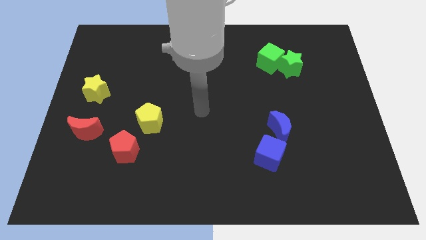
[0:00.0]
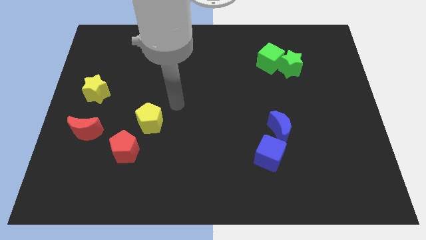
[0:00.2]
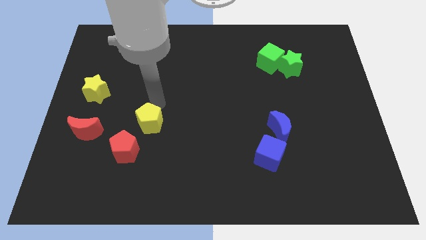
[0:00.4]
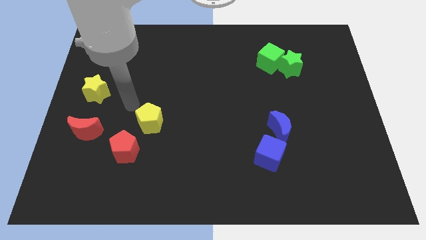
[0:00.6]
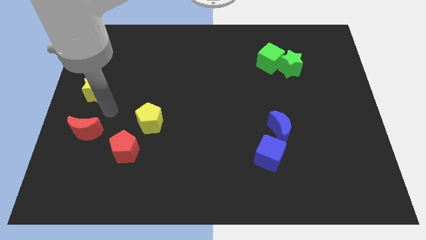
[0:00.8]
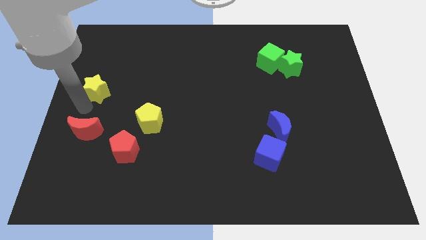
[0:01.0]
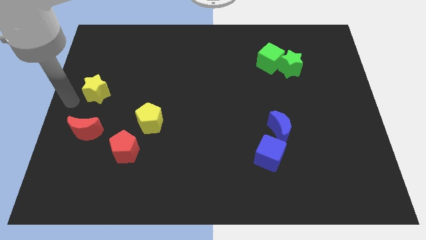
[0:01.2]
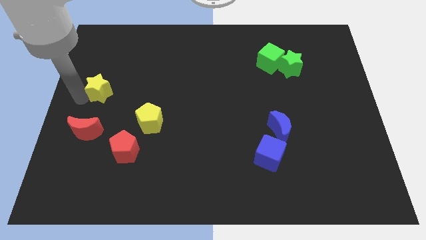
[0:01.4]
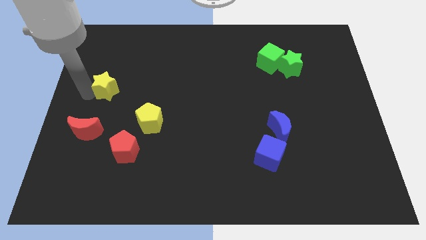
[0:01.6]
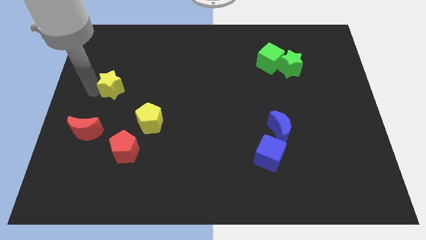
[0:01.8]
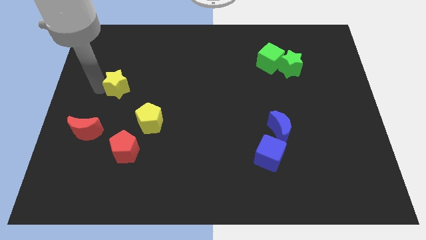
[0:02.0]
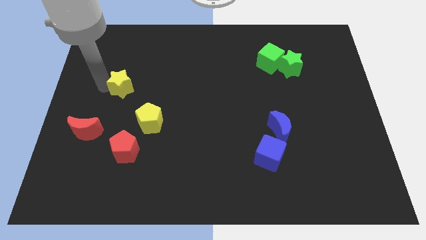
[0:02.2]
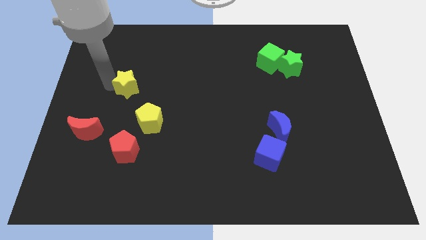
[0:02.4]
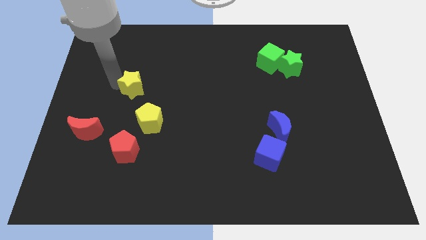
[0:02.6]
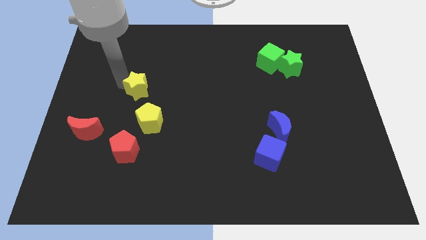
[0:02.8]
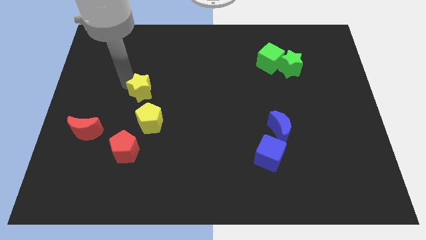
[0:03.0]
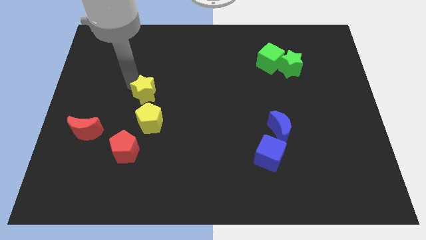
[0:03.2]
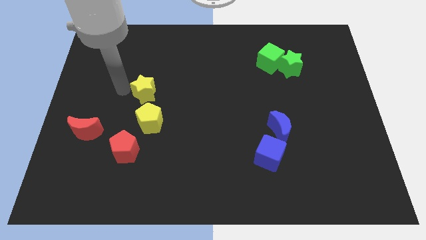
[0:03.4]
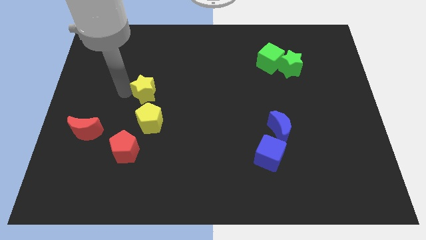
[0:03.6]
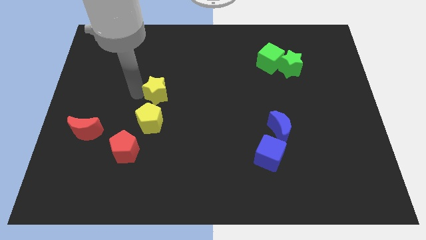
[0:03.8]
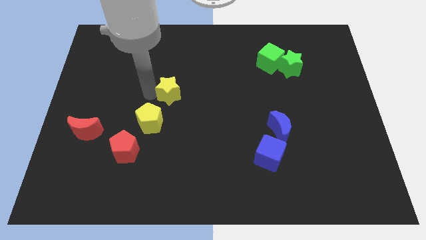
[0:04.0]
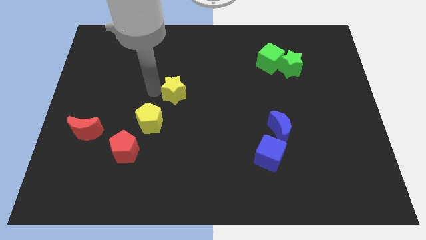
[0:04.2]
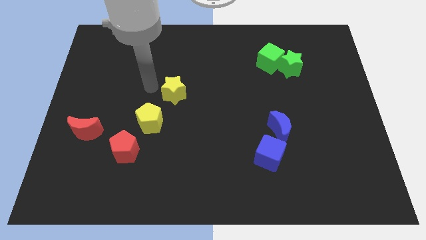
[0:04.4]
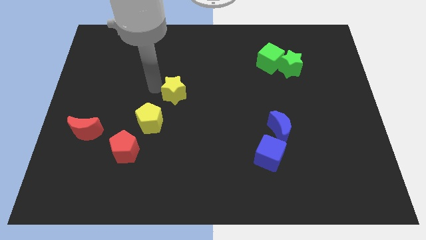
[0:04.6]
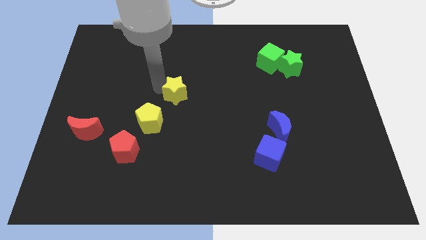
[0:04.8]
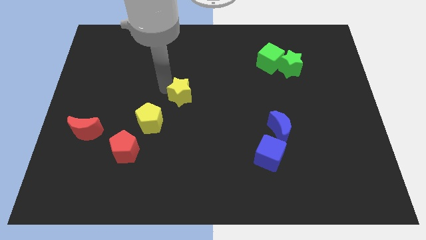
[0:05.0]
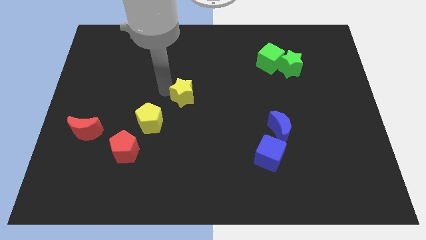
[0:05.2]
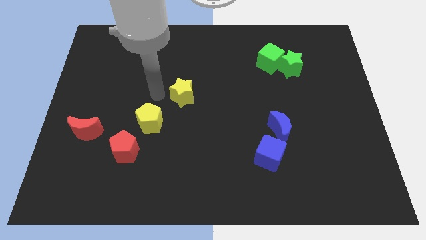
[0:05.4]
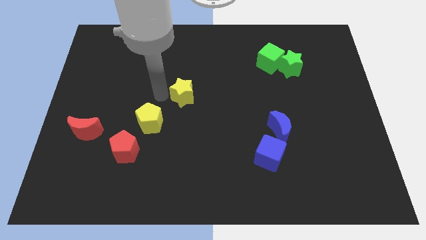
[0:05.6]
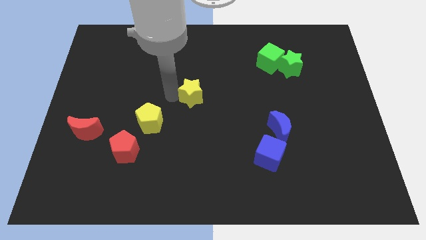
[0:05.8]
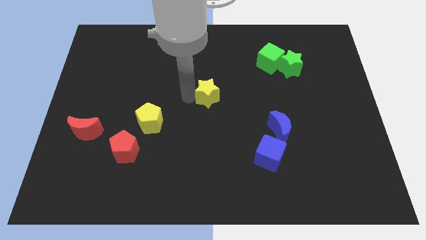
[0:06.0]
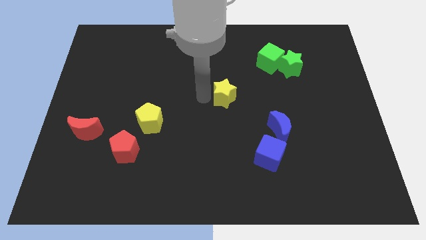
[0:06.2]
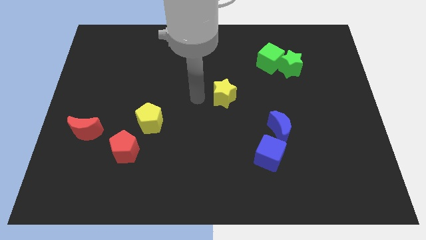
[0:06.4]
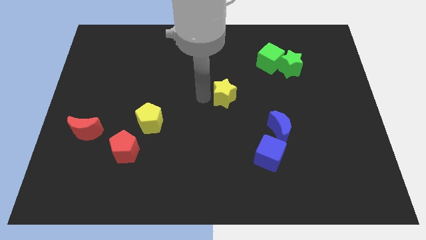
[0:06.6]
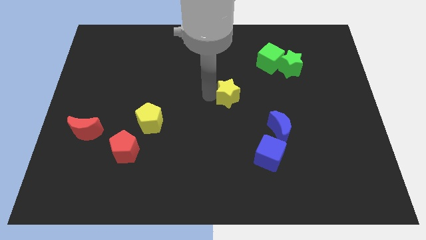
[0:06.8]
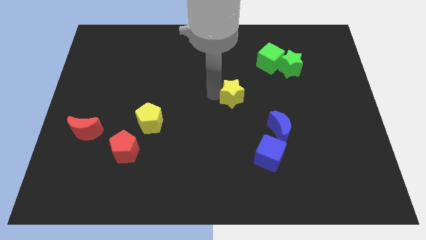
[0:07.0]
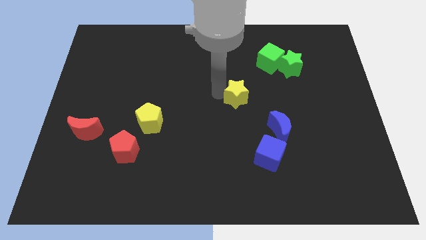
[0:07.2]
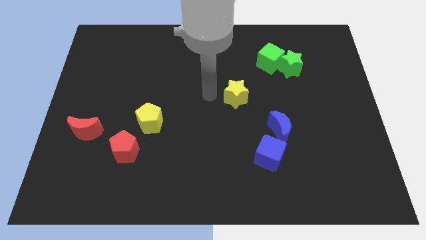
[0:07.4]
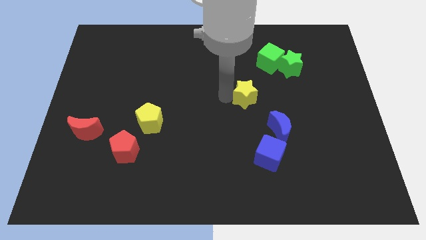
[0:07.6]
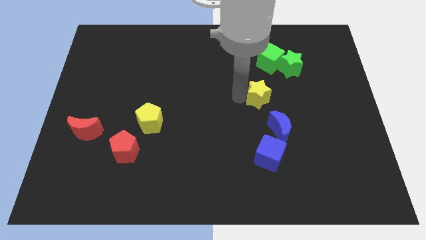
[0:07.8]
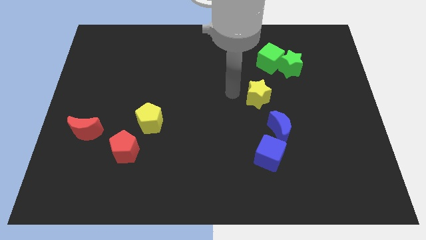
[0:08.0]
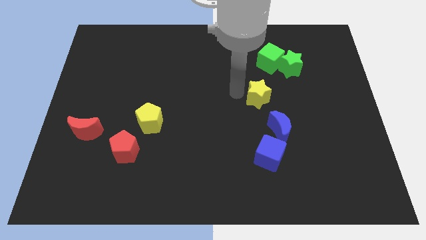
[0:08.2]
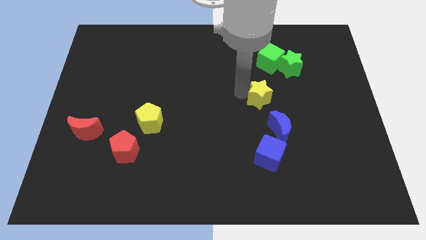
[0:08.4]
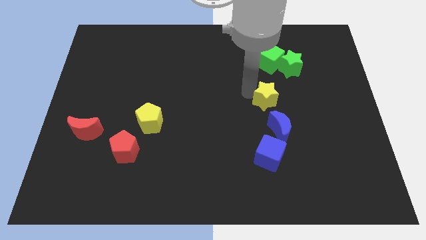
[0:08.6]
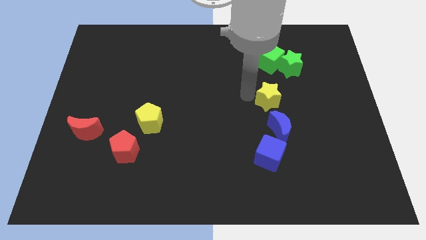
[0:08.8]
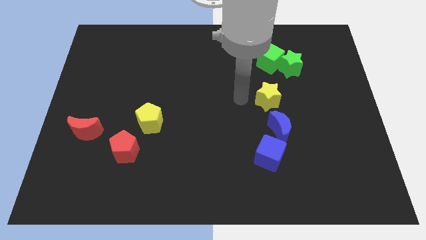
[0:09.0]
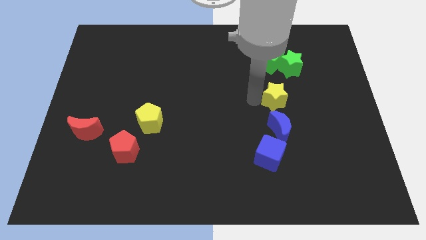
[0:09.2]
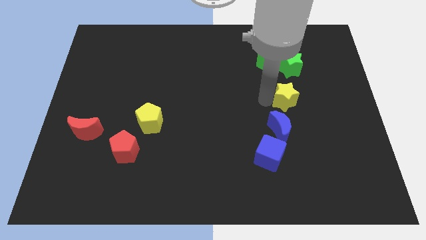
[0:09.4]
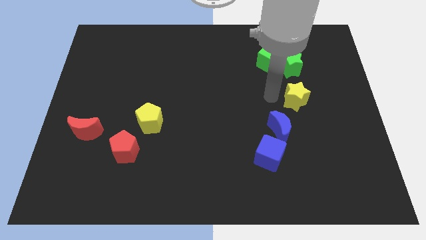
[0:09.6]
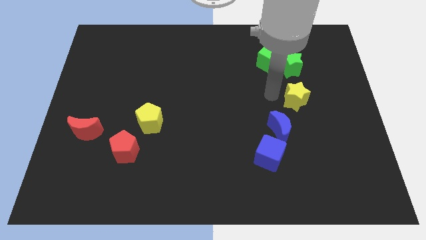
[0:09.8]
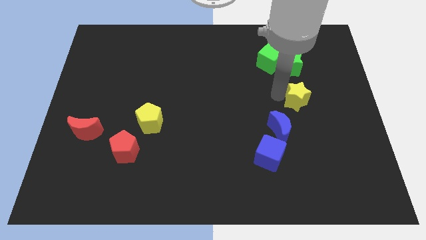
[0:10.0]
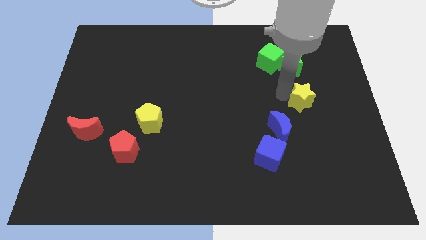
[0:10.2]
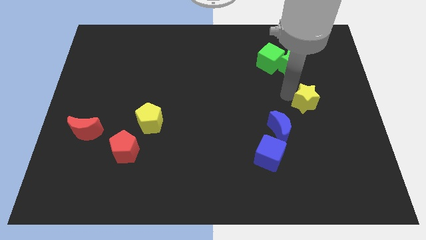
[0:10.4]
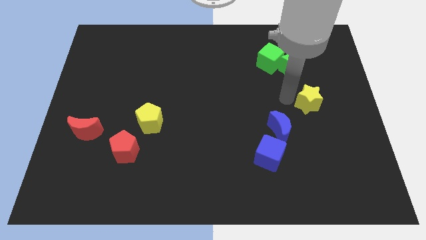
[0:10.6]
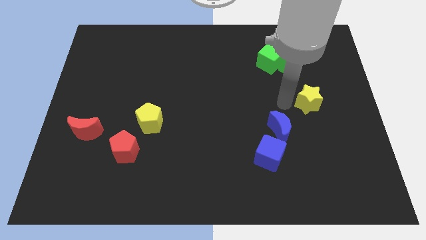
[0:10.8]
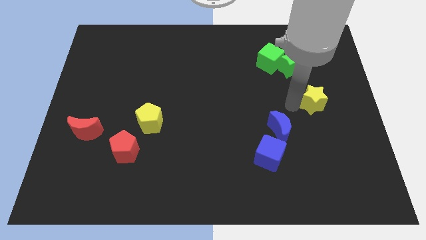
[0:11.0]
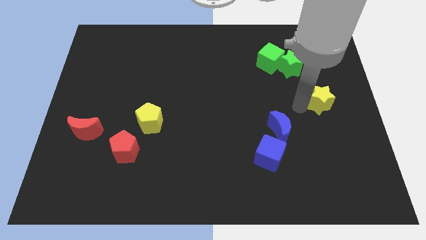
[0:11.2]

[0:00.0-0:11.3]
move the yellow star to the right side of the board
